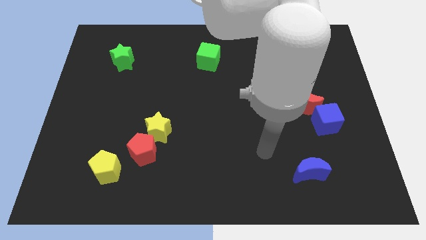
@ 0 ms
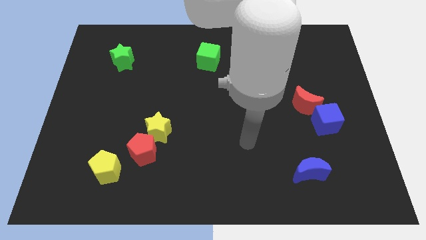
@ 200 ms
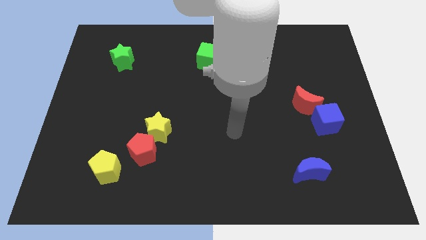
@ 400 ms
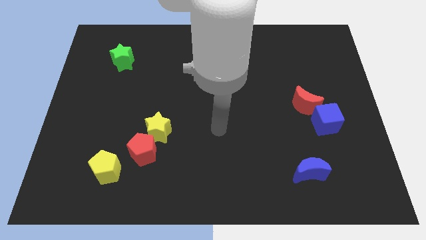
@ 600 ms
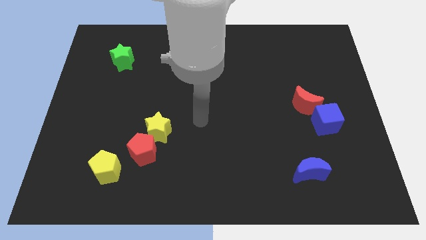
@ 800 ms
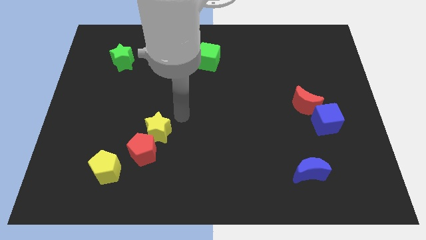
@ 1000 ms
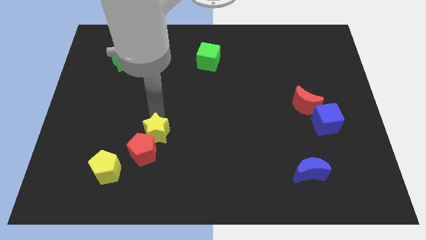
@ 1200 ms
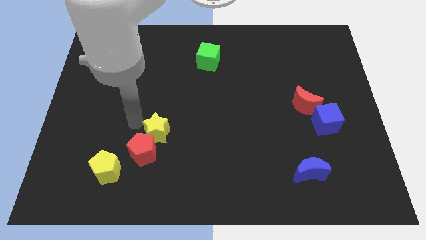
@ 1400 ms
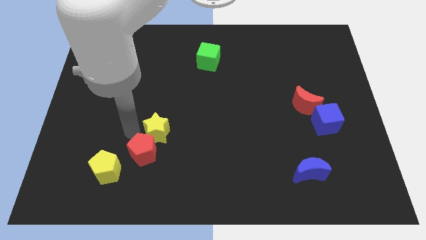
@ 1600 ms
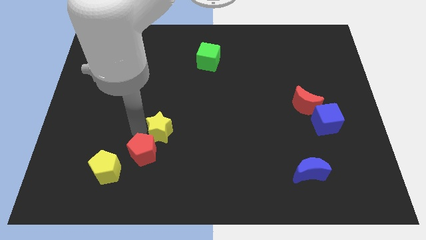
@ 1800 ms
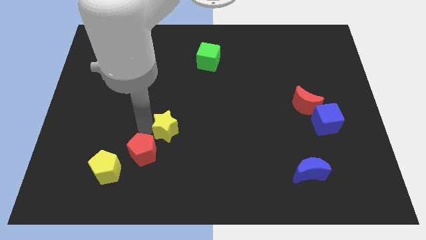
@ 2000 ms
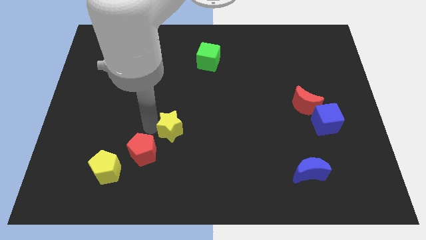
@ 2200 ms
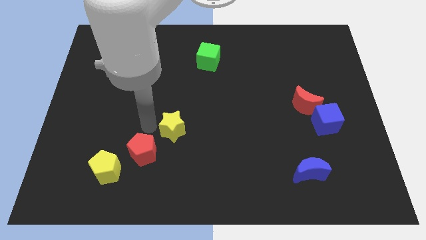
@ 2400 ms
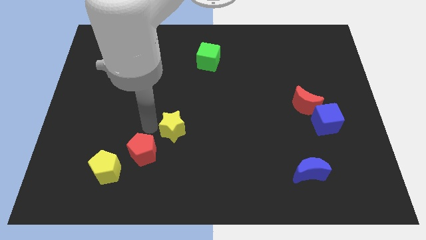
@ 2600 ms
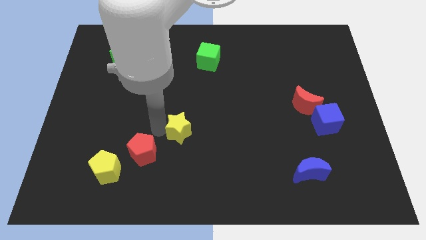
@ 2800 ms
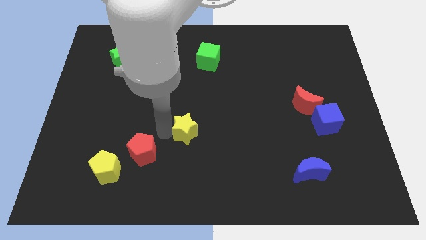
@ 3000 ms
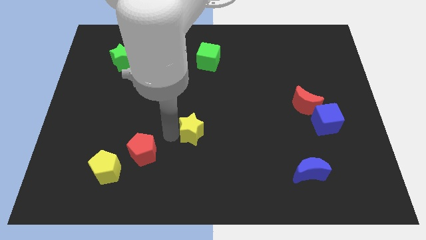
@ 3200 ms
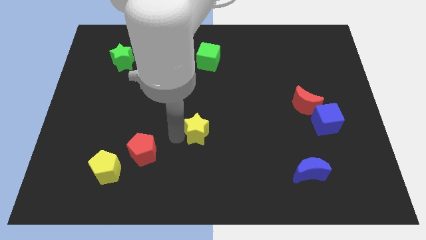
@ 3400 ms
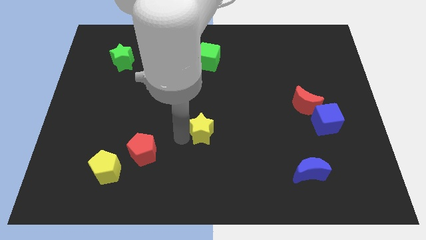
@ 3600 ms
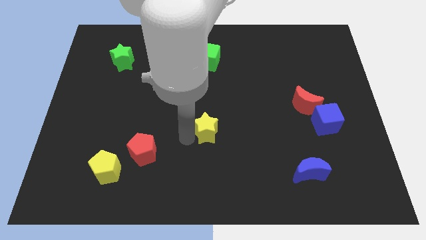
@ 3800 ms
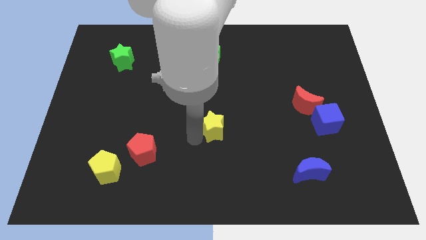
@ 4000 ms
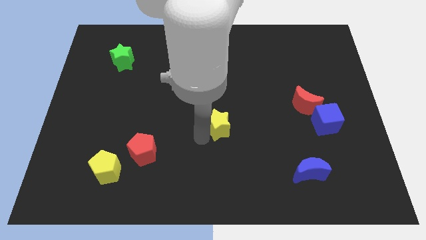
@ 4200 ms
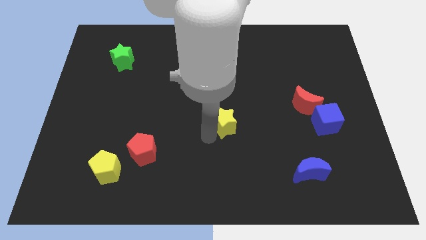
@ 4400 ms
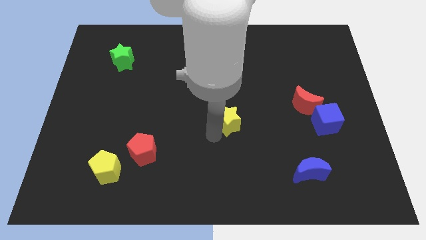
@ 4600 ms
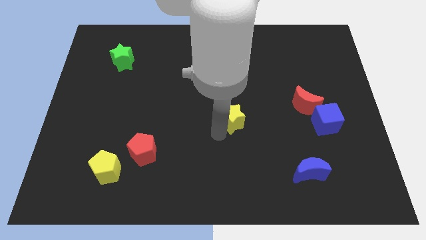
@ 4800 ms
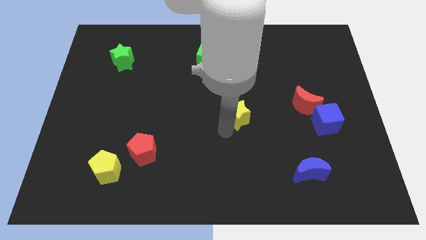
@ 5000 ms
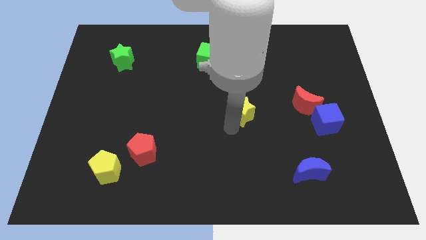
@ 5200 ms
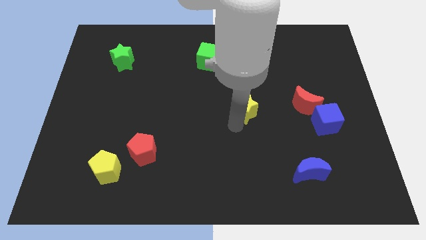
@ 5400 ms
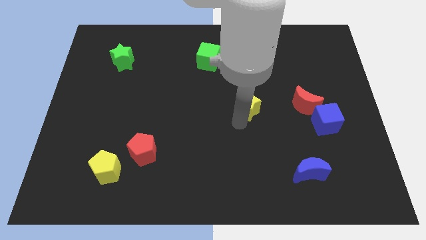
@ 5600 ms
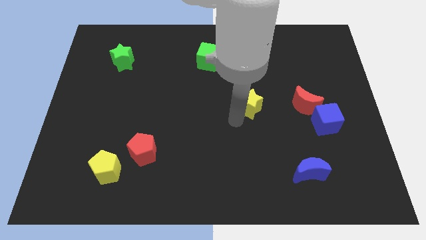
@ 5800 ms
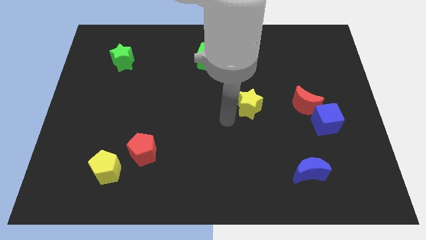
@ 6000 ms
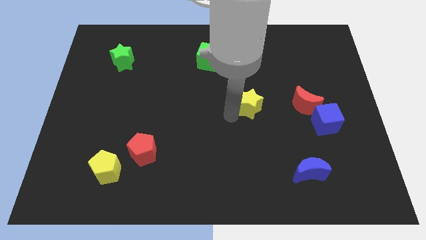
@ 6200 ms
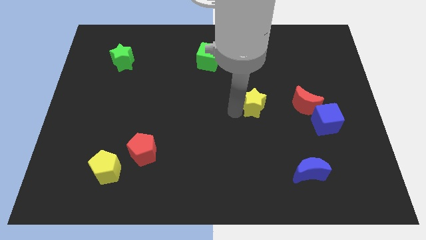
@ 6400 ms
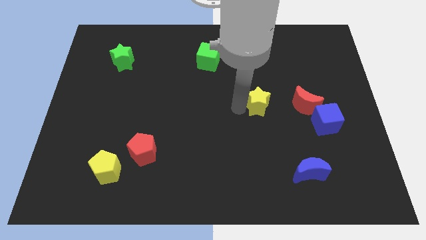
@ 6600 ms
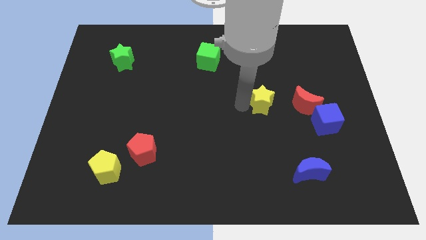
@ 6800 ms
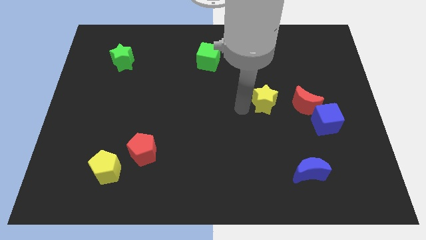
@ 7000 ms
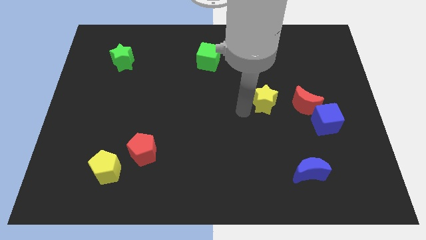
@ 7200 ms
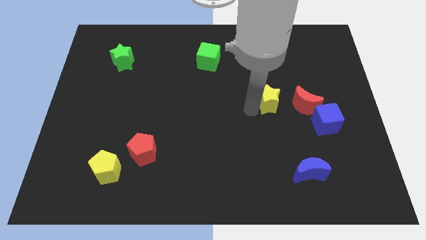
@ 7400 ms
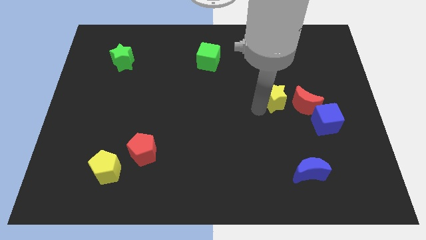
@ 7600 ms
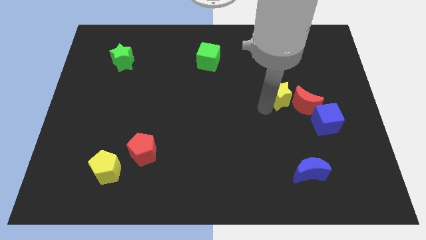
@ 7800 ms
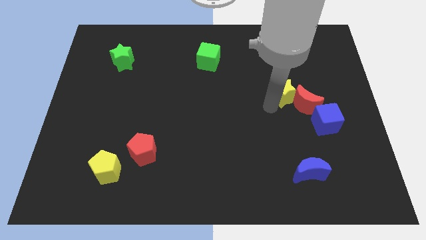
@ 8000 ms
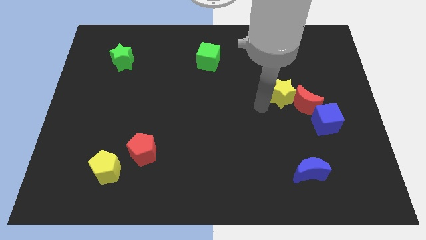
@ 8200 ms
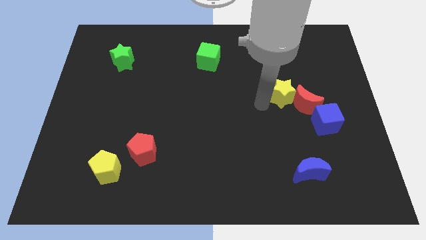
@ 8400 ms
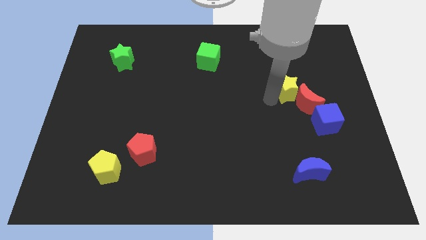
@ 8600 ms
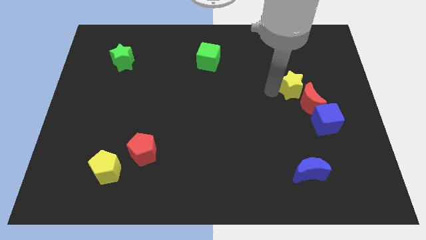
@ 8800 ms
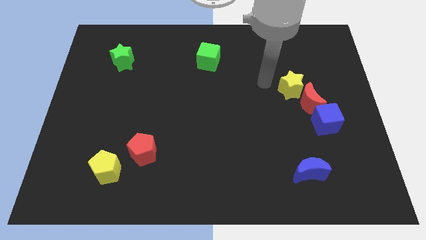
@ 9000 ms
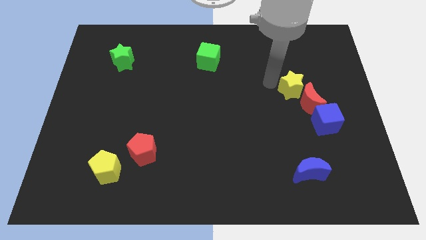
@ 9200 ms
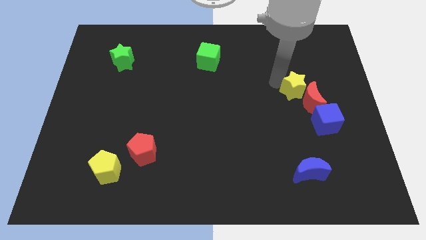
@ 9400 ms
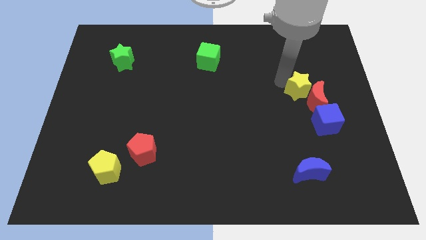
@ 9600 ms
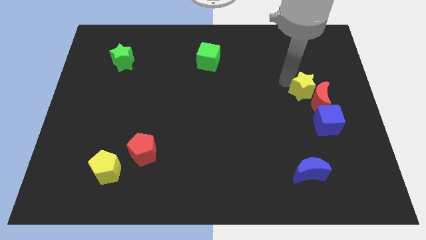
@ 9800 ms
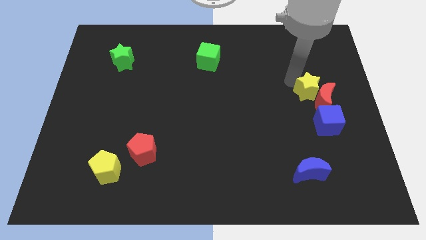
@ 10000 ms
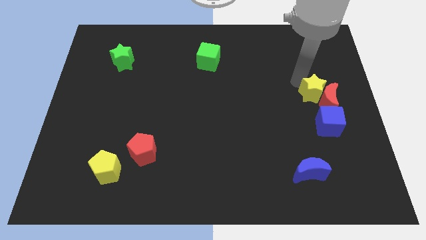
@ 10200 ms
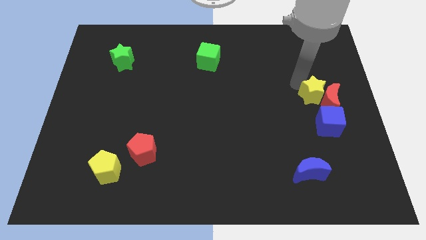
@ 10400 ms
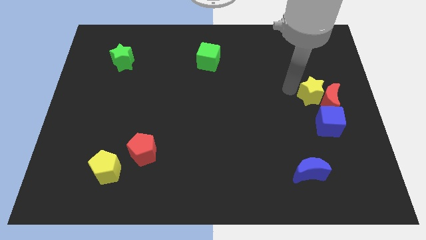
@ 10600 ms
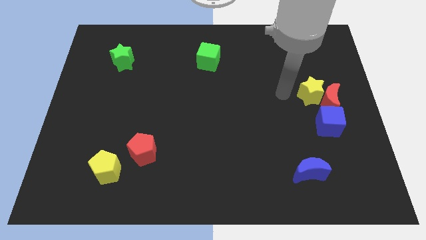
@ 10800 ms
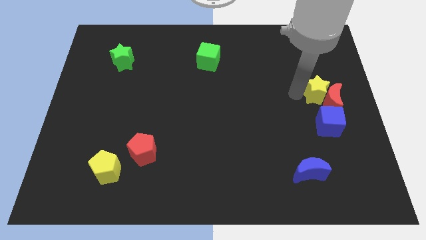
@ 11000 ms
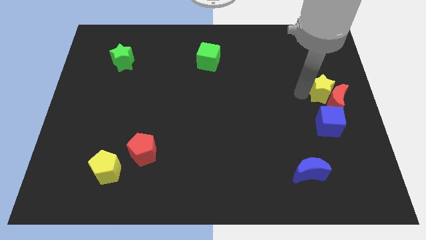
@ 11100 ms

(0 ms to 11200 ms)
move the yellow star to the right side of the board

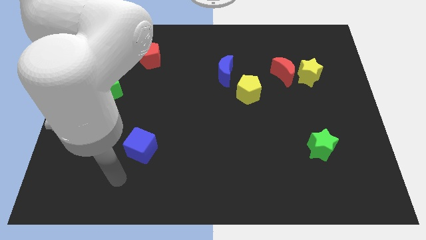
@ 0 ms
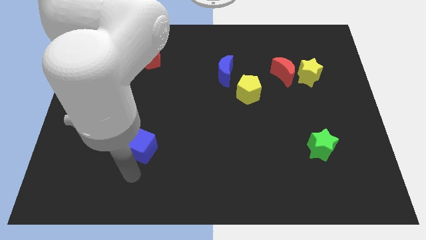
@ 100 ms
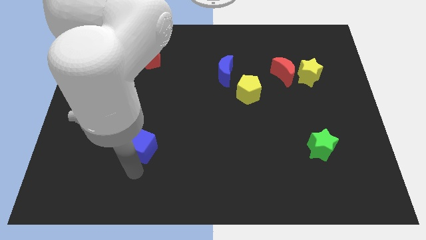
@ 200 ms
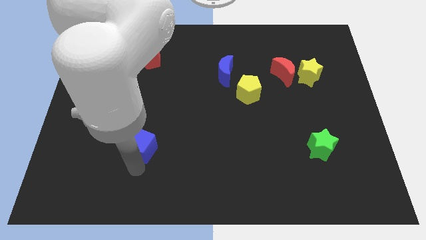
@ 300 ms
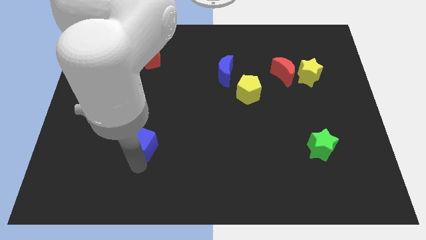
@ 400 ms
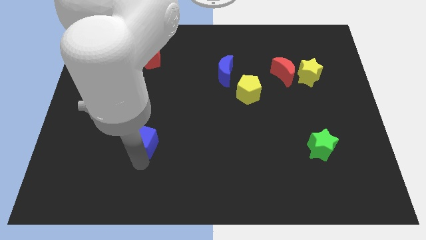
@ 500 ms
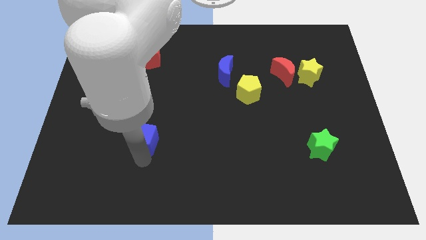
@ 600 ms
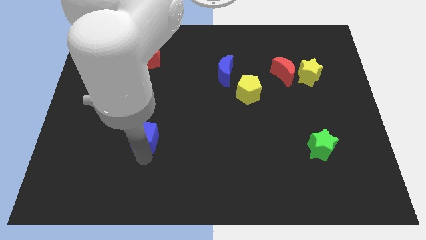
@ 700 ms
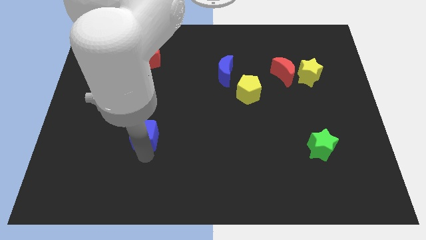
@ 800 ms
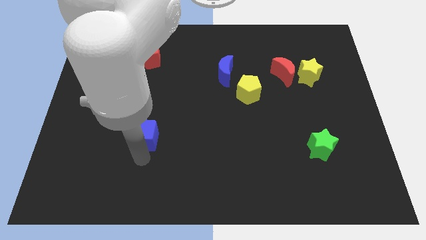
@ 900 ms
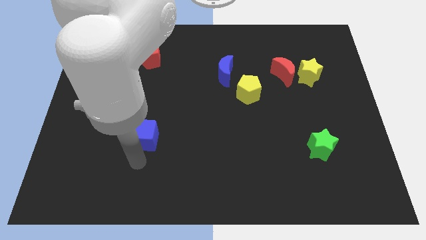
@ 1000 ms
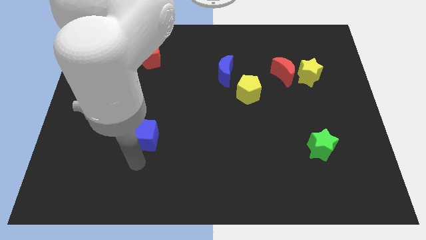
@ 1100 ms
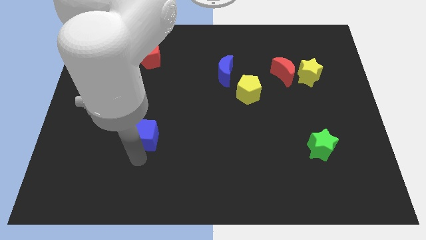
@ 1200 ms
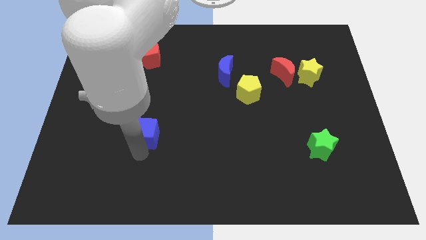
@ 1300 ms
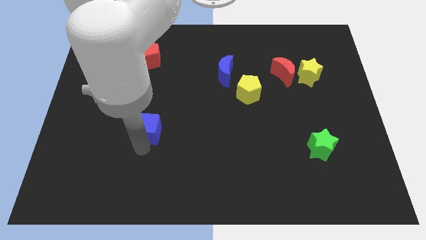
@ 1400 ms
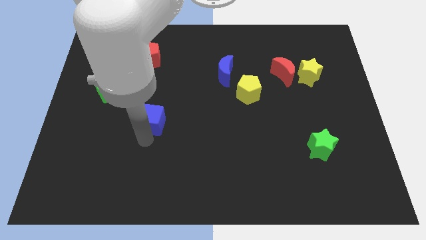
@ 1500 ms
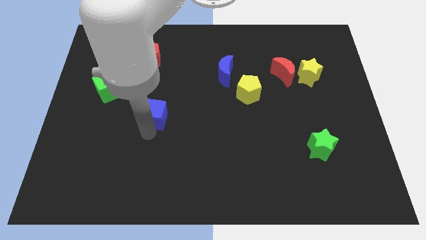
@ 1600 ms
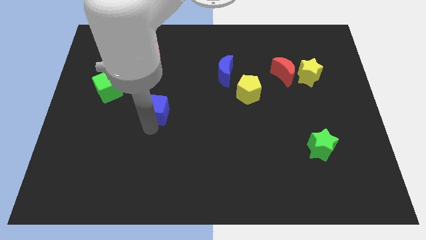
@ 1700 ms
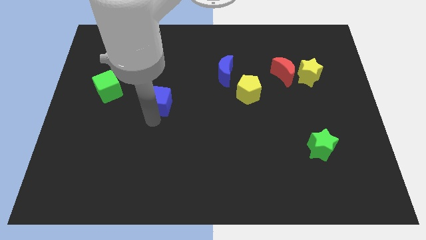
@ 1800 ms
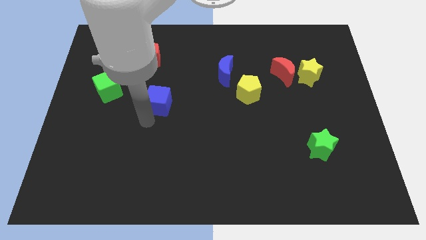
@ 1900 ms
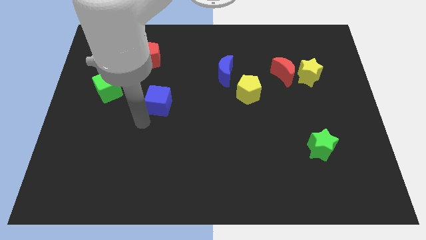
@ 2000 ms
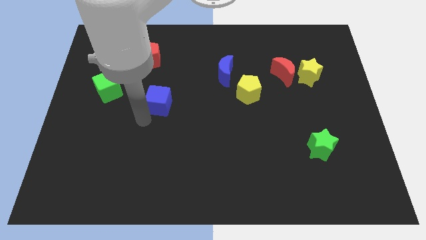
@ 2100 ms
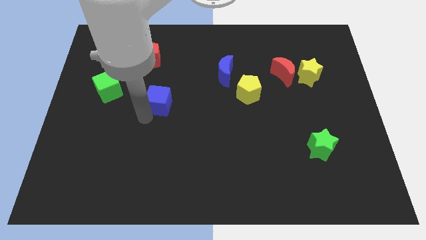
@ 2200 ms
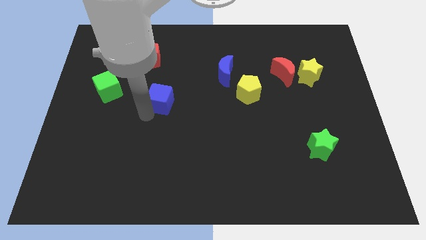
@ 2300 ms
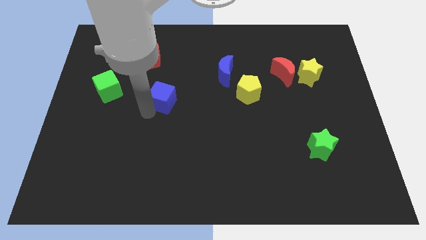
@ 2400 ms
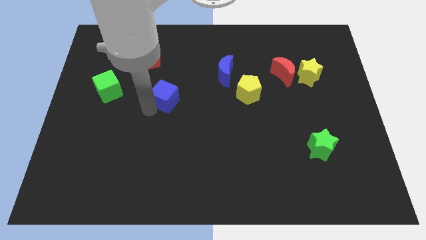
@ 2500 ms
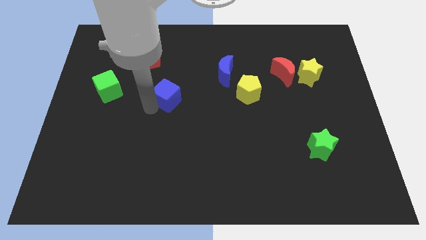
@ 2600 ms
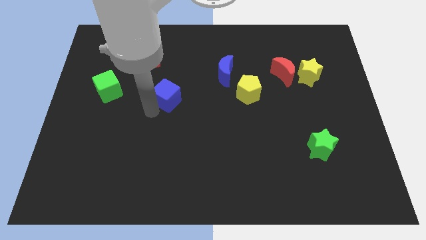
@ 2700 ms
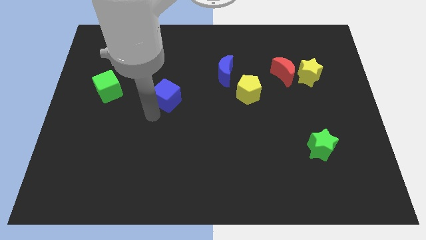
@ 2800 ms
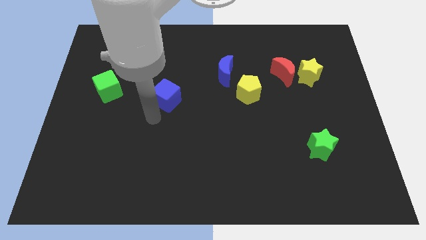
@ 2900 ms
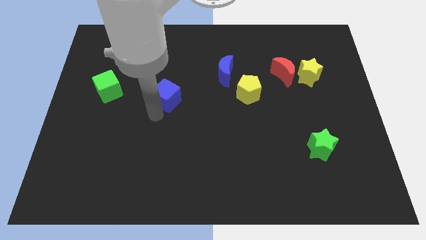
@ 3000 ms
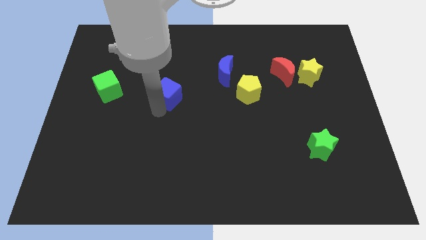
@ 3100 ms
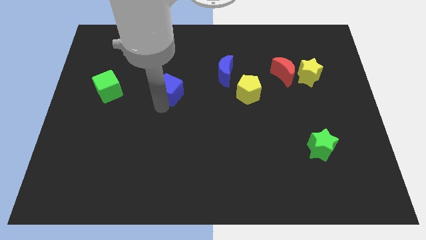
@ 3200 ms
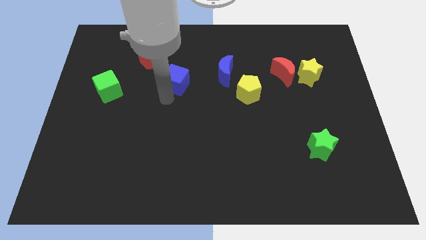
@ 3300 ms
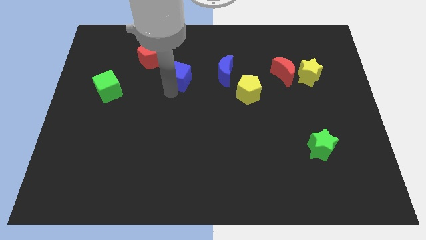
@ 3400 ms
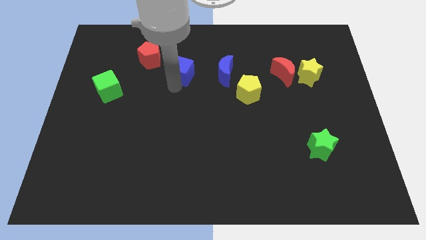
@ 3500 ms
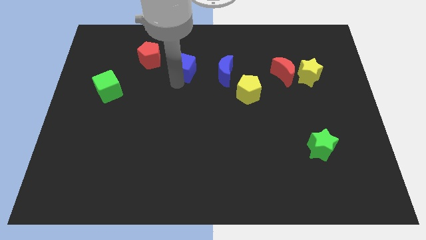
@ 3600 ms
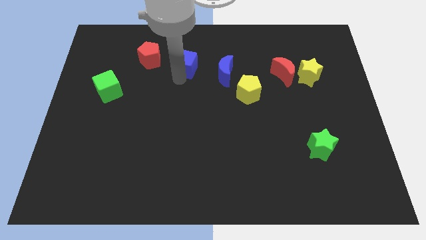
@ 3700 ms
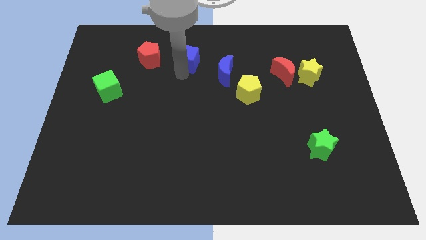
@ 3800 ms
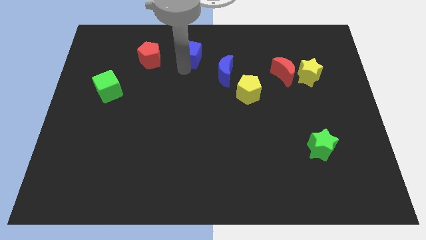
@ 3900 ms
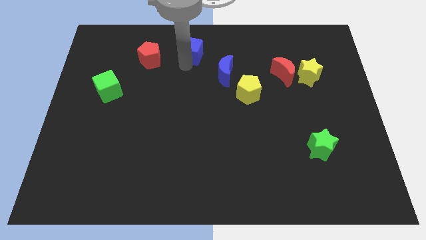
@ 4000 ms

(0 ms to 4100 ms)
move the blue cube to the top side
